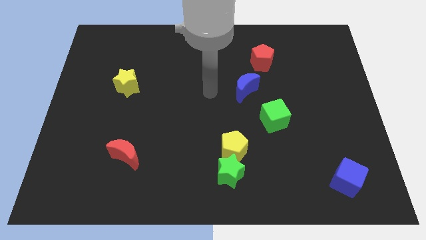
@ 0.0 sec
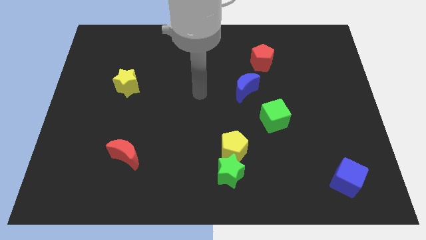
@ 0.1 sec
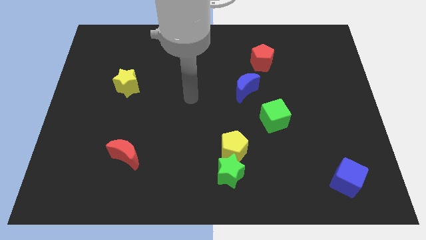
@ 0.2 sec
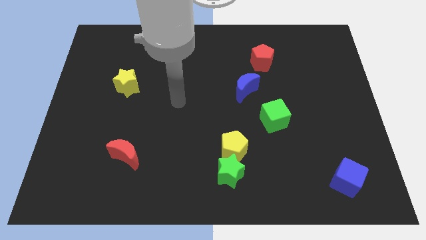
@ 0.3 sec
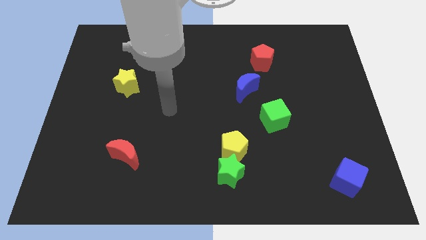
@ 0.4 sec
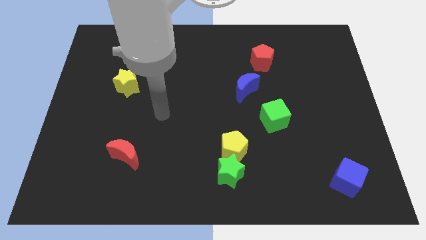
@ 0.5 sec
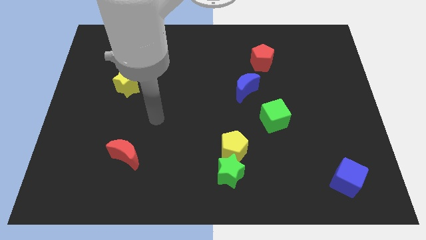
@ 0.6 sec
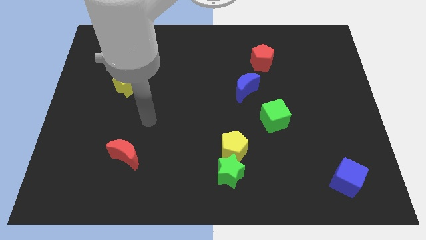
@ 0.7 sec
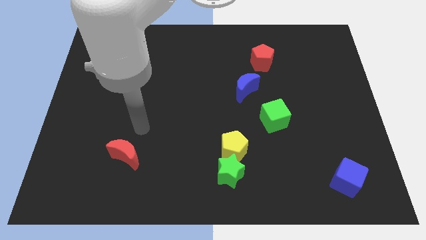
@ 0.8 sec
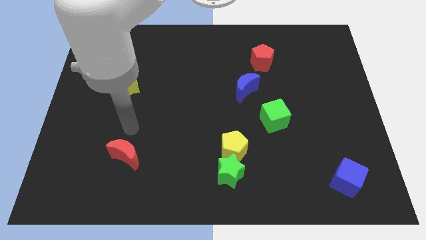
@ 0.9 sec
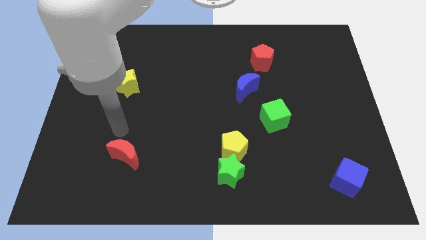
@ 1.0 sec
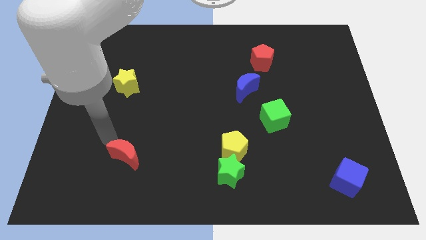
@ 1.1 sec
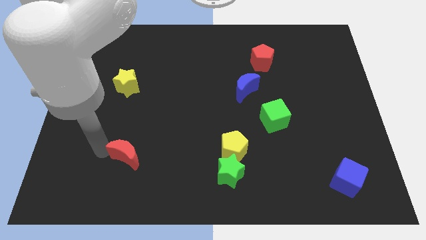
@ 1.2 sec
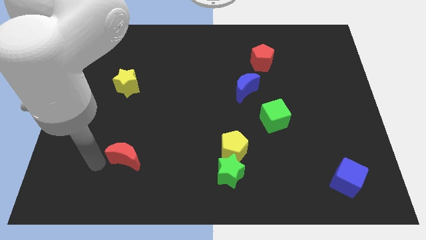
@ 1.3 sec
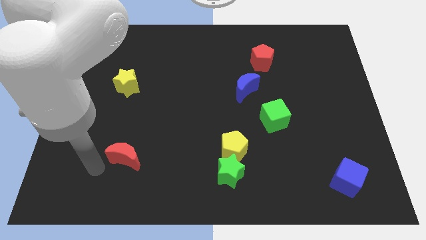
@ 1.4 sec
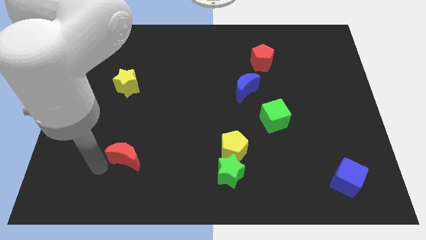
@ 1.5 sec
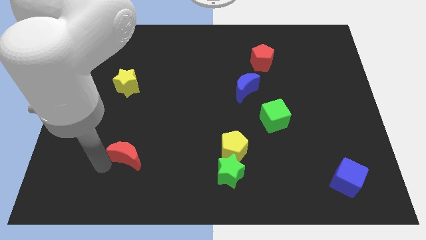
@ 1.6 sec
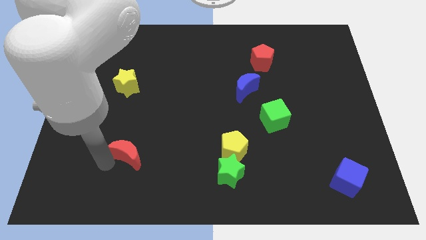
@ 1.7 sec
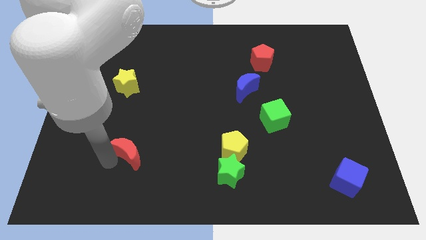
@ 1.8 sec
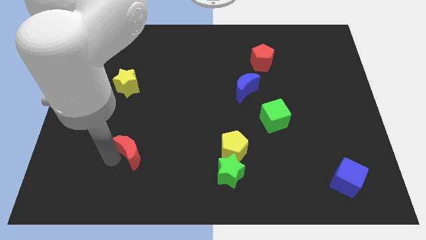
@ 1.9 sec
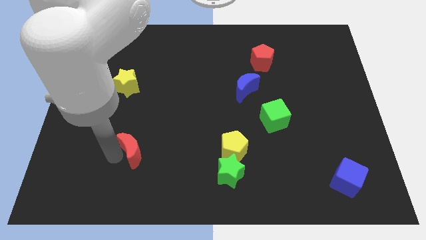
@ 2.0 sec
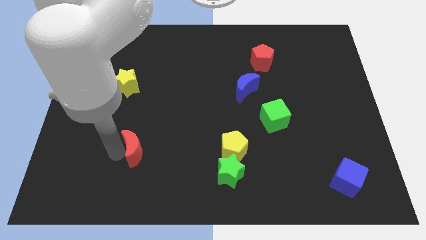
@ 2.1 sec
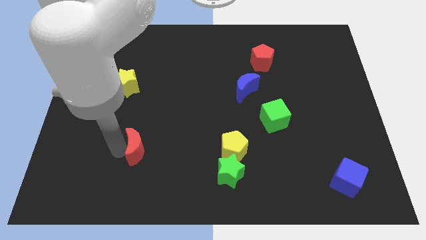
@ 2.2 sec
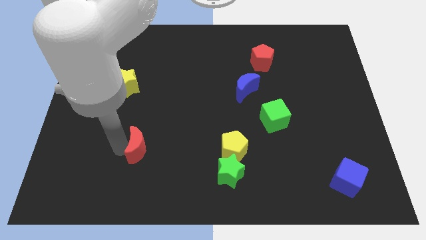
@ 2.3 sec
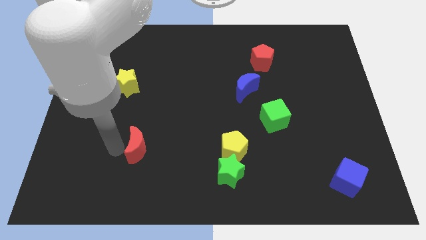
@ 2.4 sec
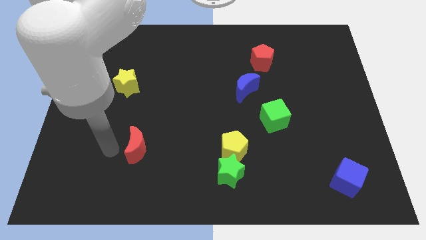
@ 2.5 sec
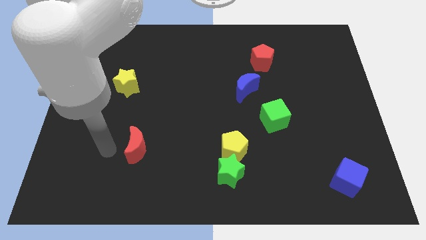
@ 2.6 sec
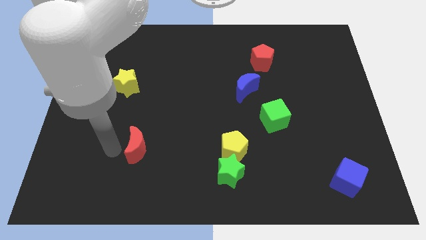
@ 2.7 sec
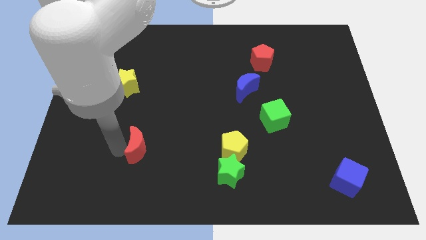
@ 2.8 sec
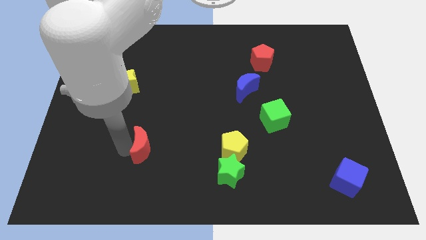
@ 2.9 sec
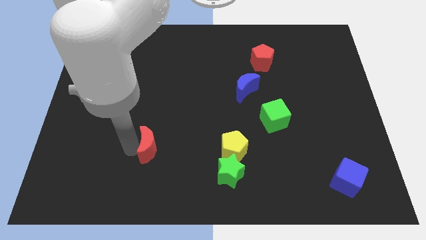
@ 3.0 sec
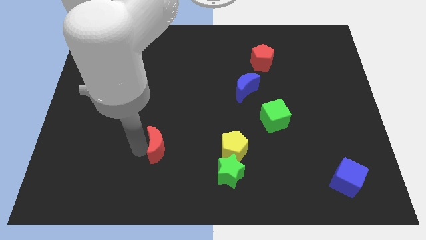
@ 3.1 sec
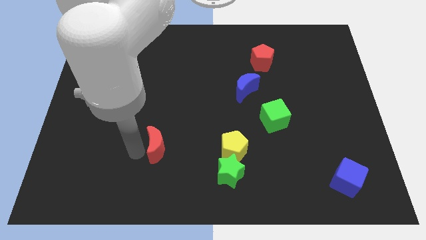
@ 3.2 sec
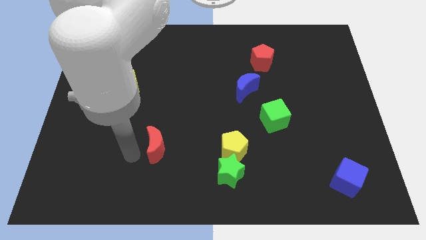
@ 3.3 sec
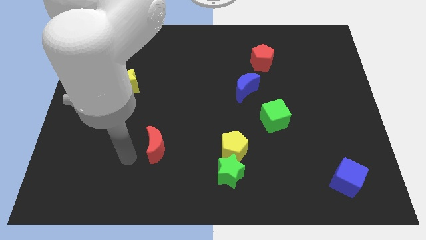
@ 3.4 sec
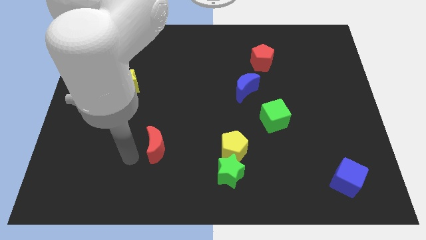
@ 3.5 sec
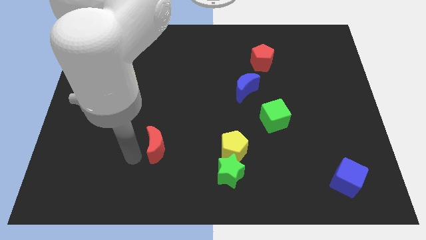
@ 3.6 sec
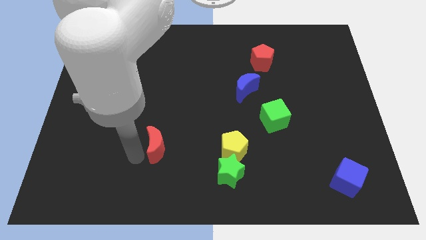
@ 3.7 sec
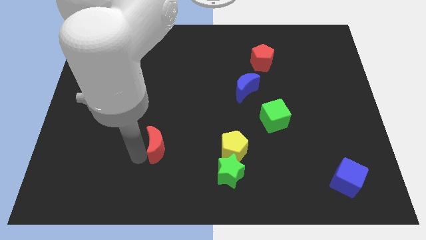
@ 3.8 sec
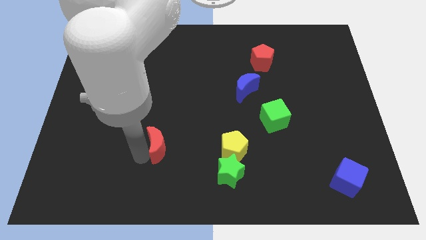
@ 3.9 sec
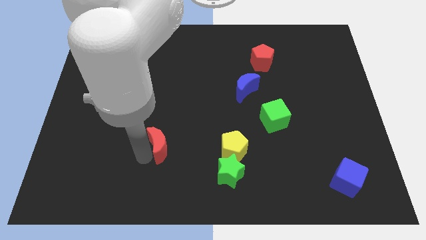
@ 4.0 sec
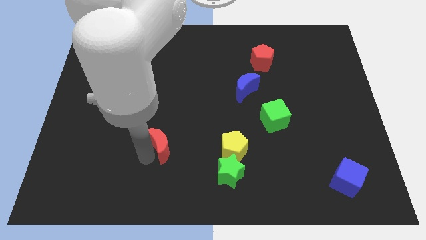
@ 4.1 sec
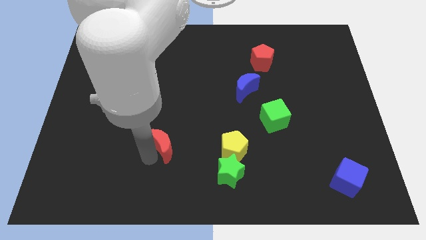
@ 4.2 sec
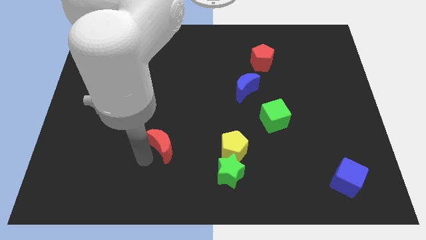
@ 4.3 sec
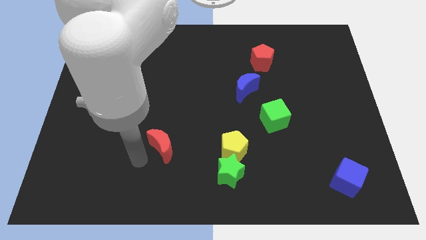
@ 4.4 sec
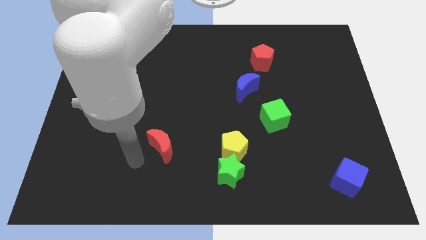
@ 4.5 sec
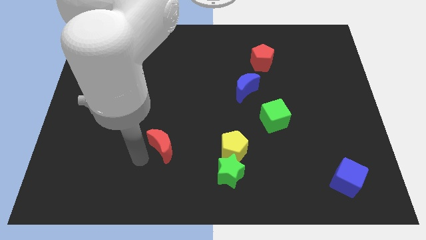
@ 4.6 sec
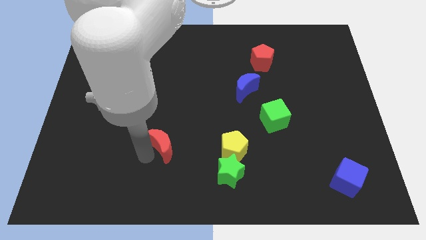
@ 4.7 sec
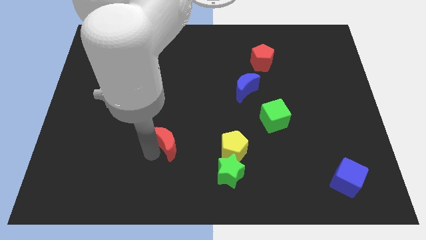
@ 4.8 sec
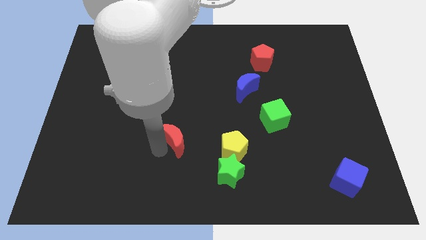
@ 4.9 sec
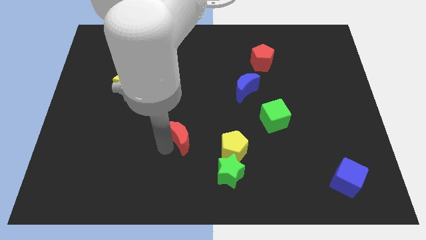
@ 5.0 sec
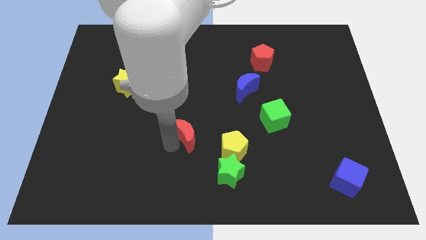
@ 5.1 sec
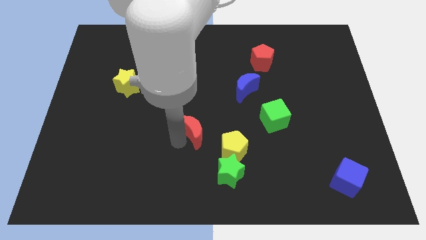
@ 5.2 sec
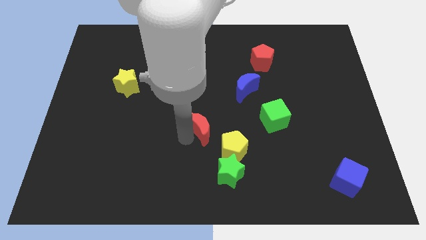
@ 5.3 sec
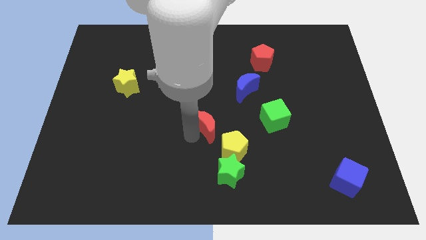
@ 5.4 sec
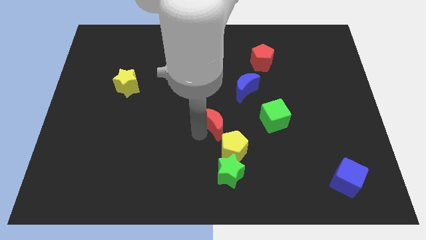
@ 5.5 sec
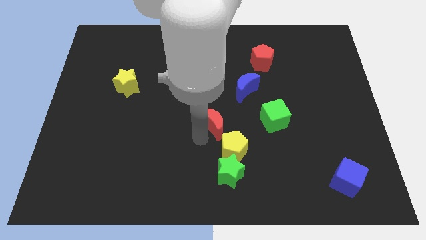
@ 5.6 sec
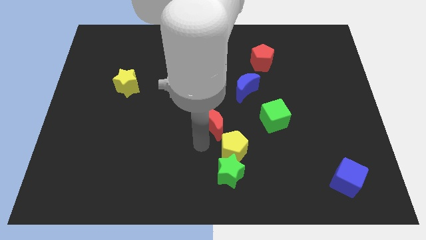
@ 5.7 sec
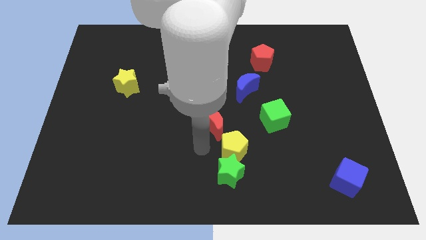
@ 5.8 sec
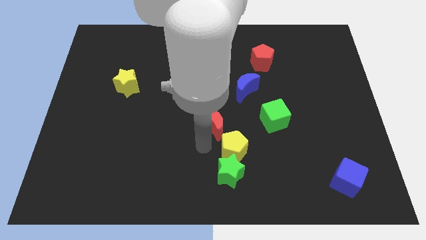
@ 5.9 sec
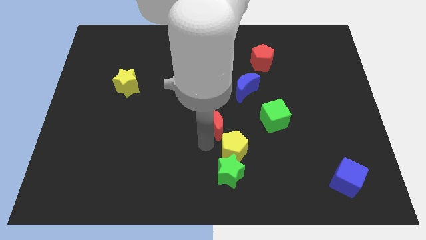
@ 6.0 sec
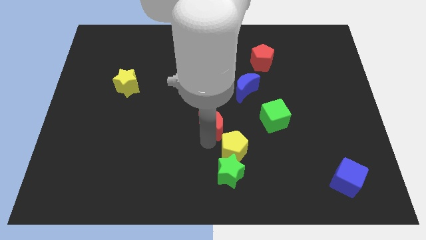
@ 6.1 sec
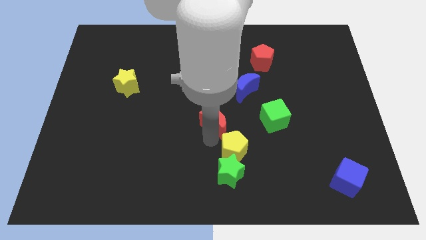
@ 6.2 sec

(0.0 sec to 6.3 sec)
slide the red moon to the bottom left of the blue moon

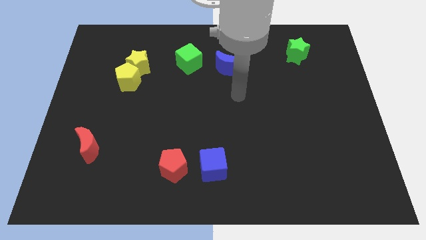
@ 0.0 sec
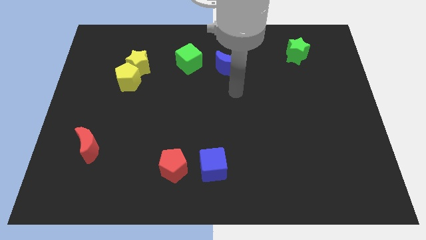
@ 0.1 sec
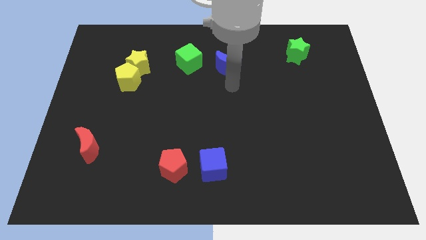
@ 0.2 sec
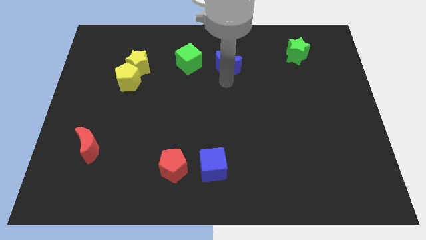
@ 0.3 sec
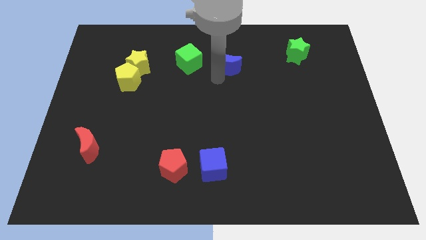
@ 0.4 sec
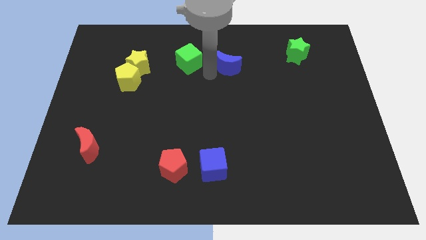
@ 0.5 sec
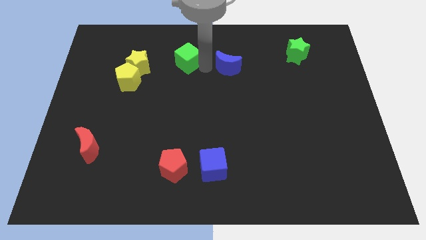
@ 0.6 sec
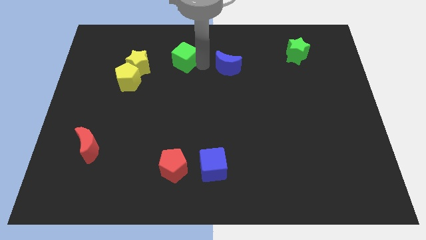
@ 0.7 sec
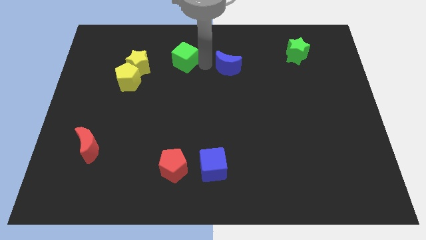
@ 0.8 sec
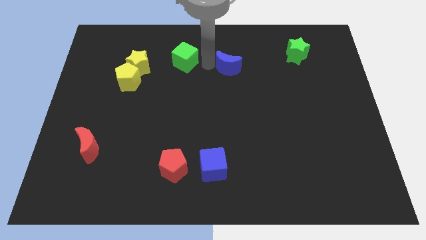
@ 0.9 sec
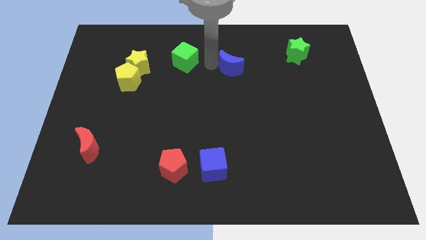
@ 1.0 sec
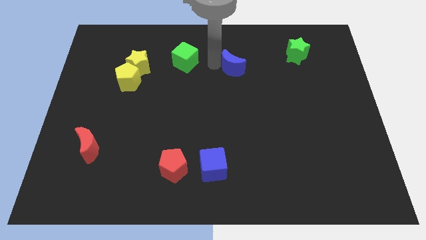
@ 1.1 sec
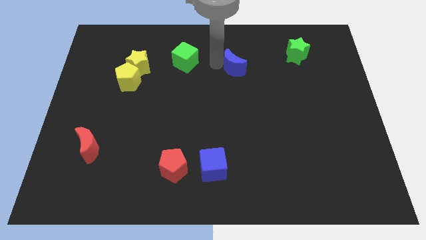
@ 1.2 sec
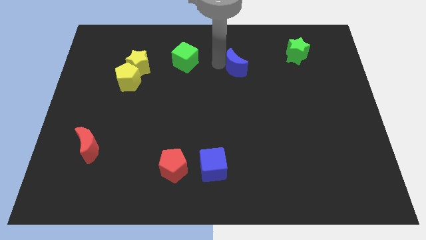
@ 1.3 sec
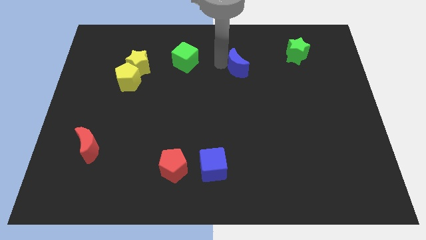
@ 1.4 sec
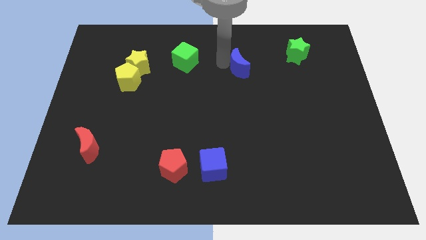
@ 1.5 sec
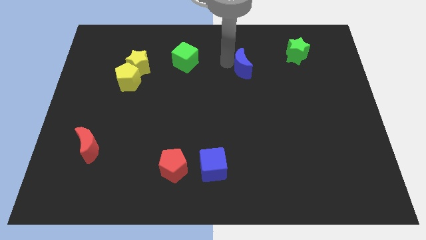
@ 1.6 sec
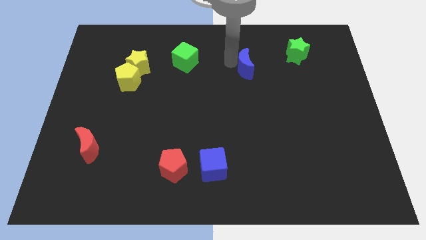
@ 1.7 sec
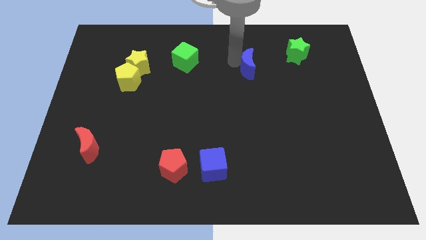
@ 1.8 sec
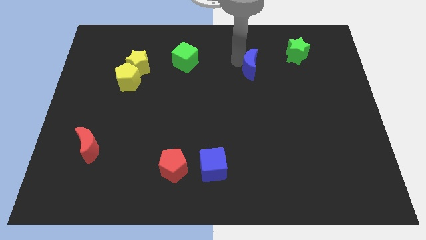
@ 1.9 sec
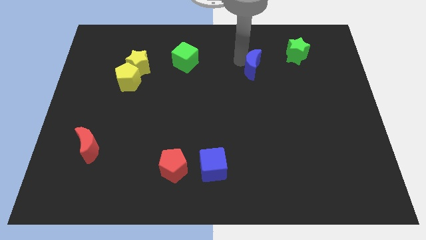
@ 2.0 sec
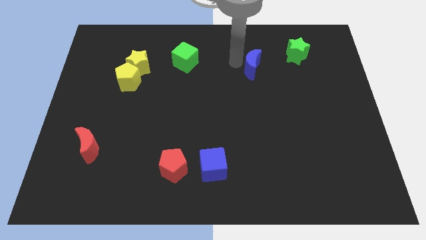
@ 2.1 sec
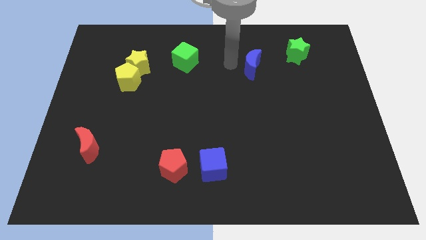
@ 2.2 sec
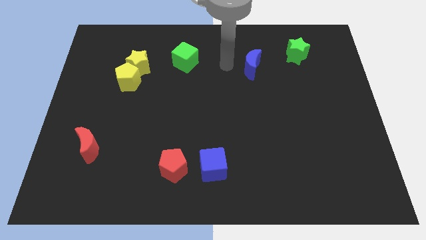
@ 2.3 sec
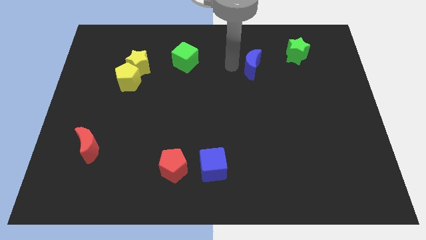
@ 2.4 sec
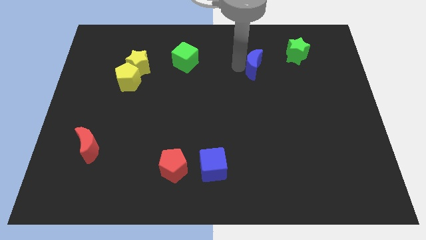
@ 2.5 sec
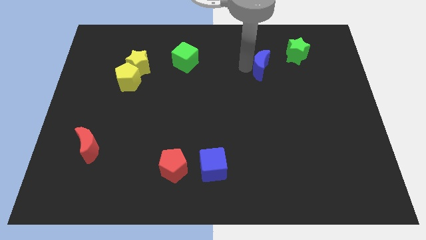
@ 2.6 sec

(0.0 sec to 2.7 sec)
slide the blue moon to the bottom left of the green star
